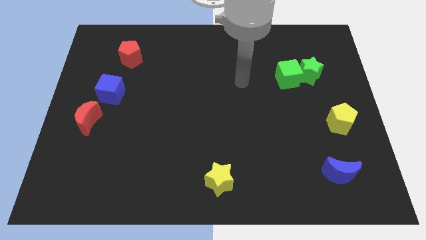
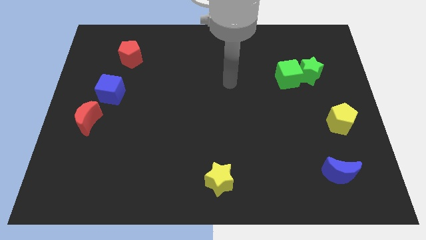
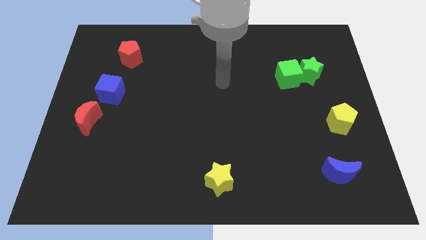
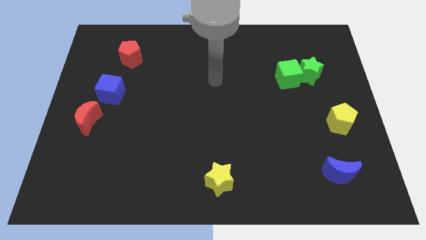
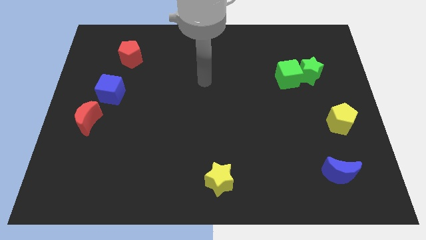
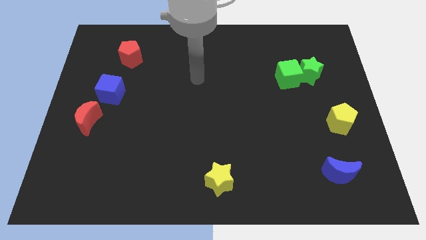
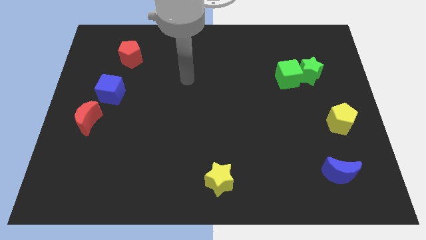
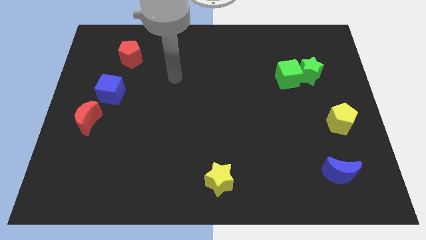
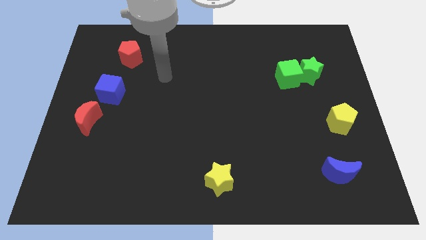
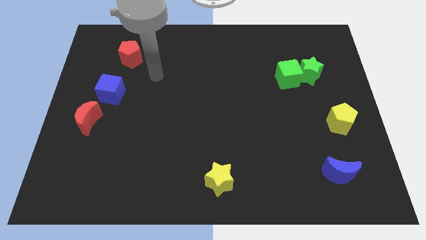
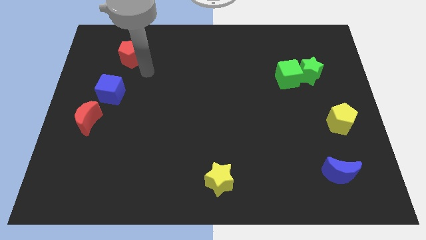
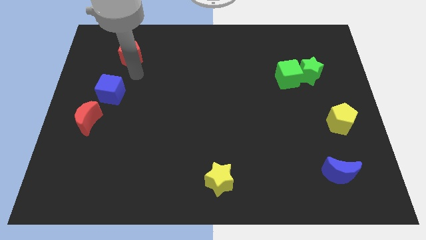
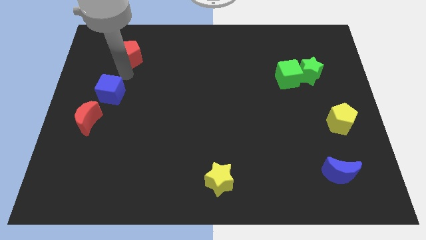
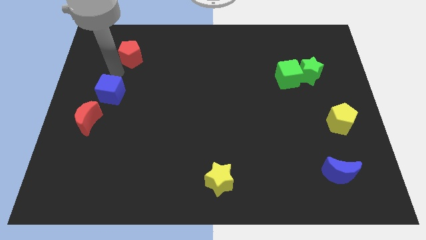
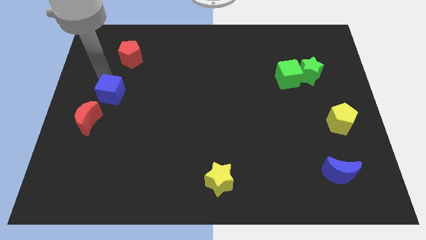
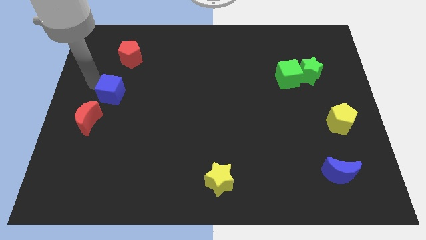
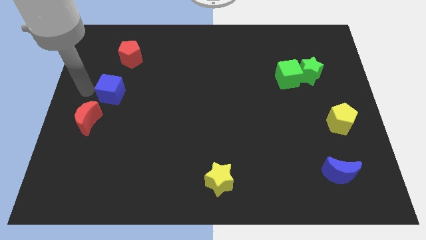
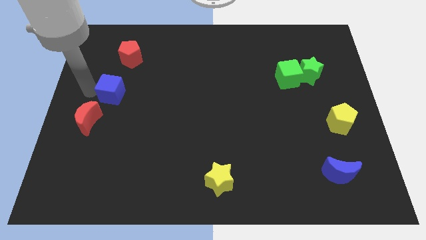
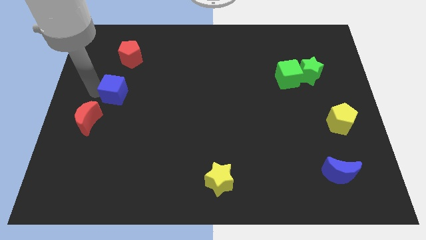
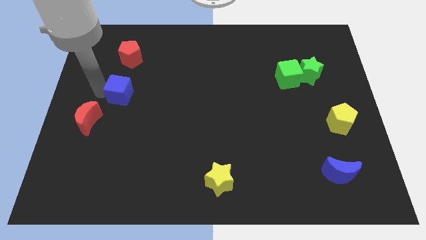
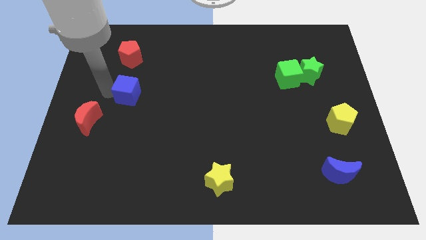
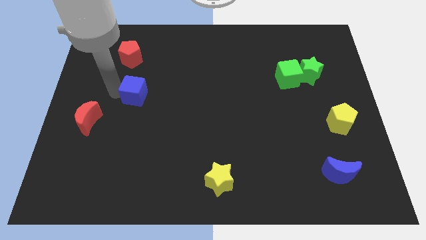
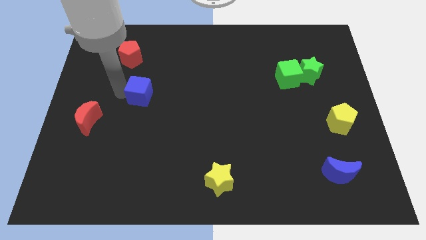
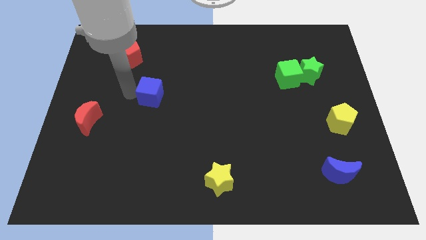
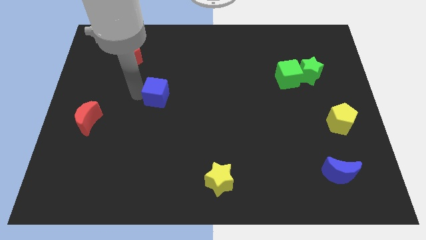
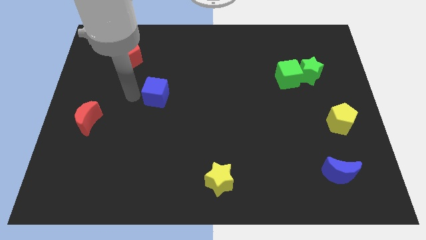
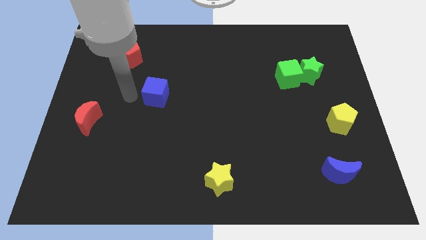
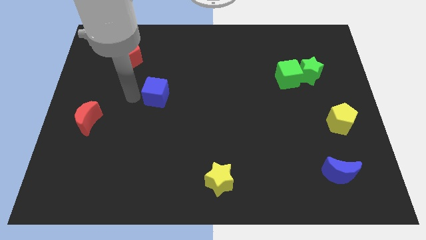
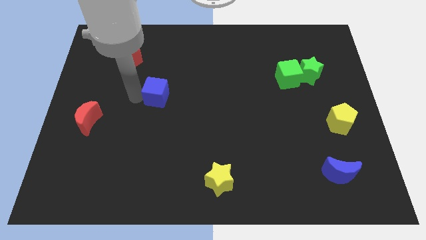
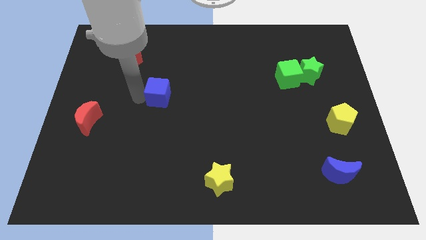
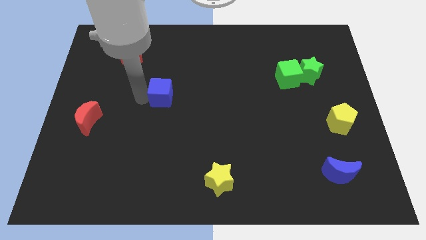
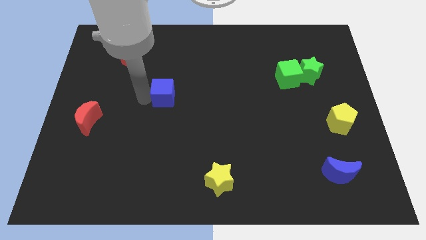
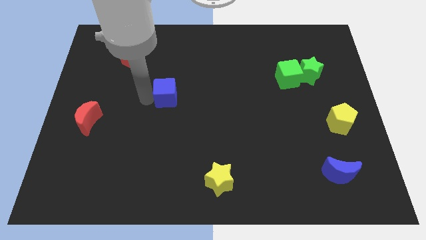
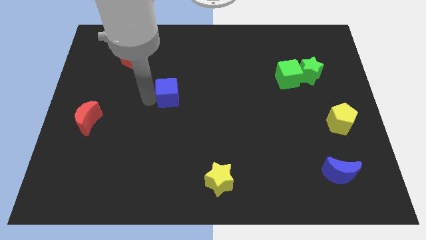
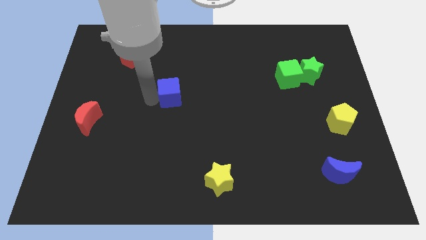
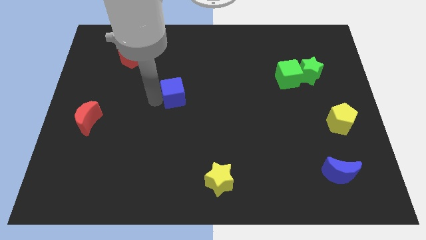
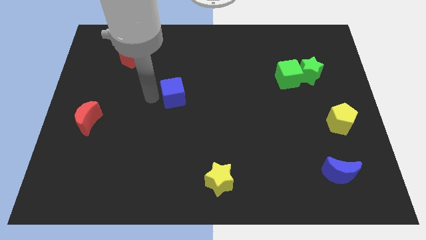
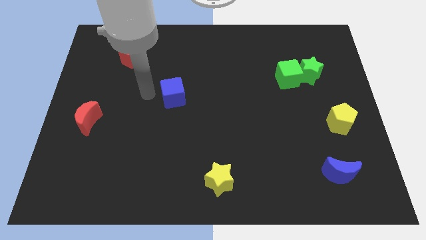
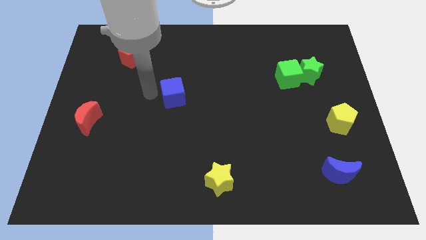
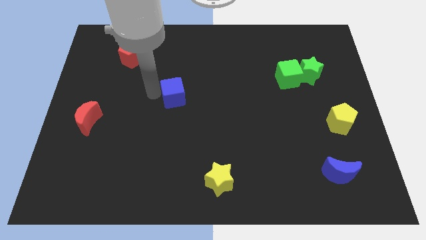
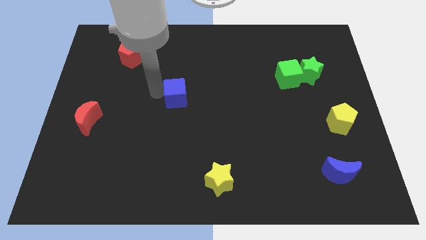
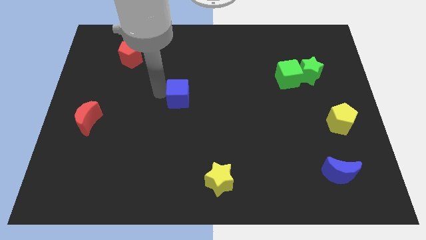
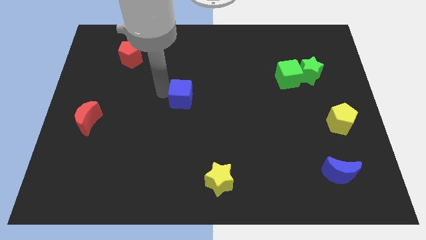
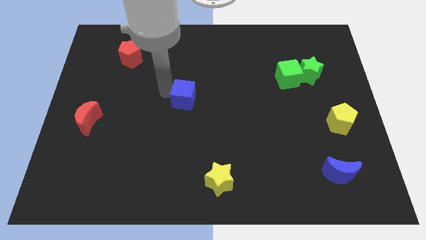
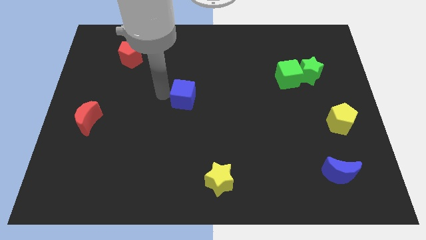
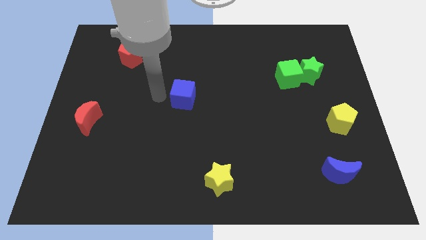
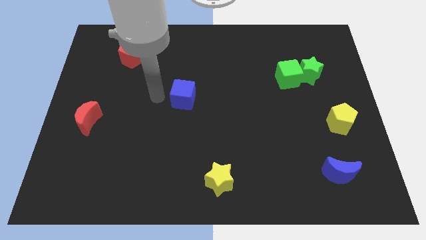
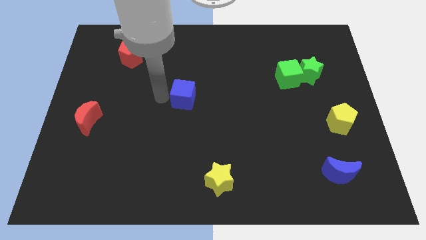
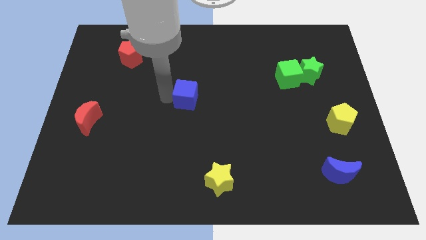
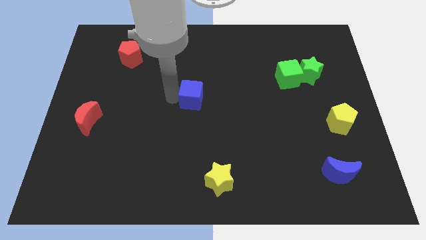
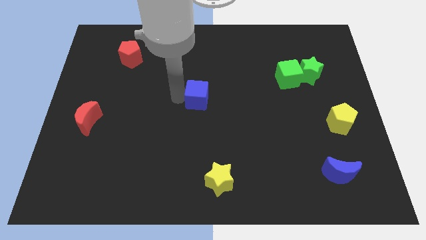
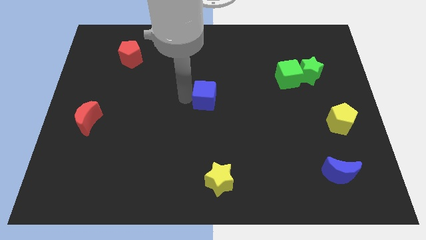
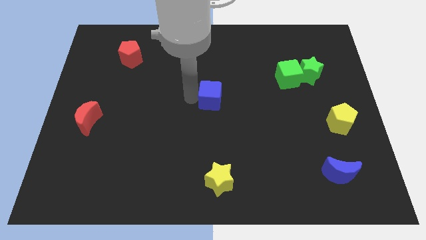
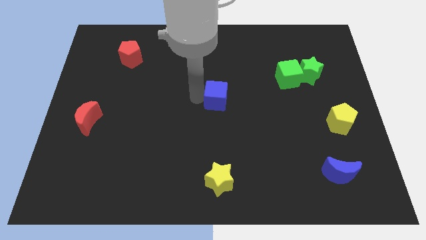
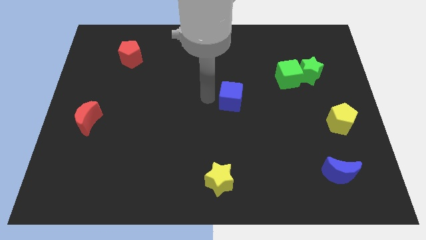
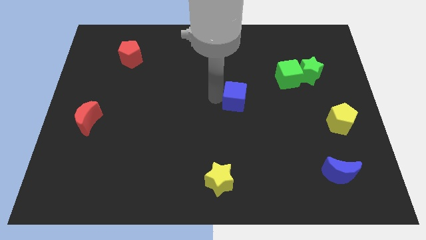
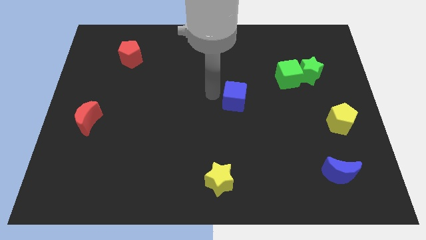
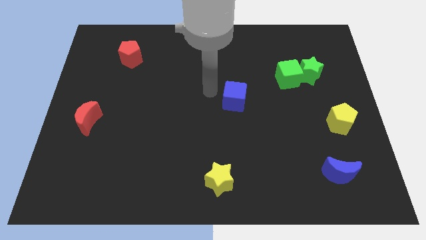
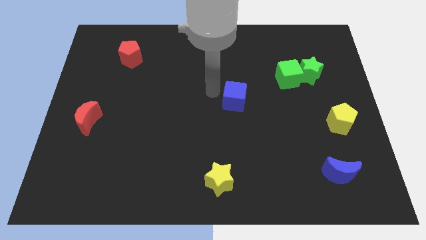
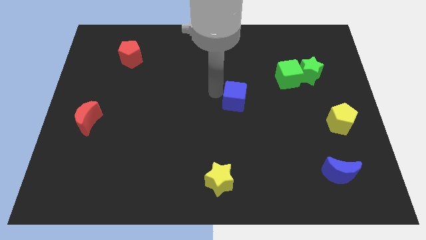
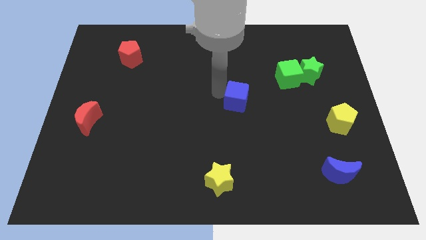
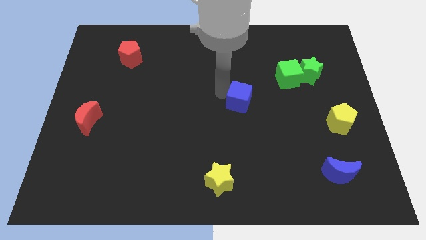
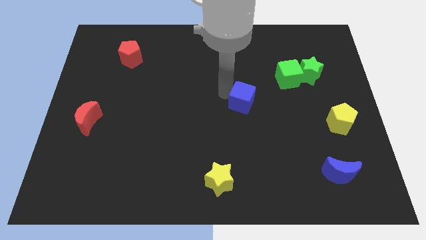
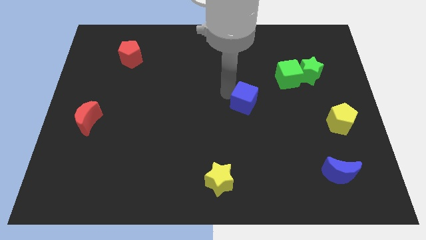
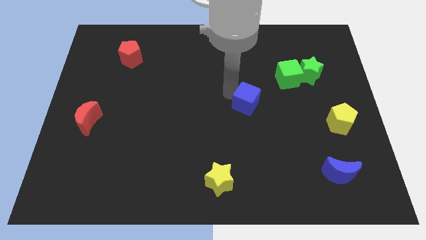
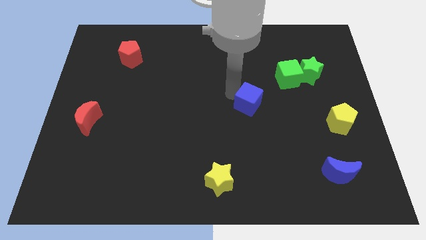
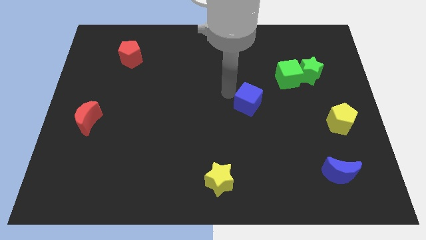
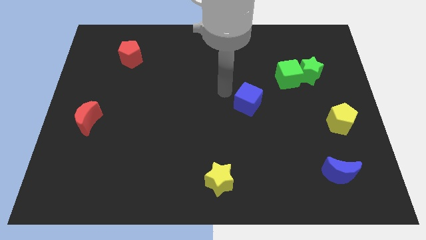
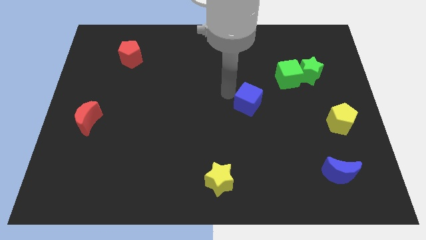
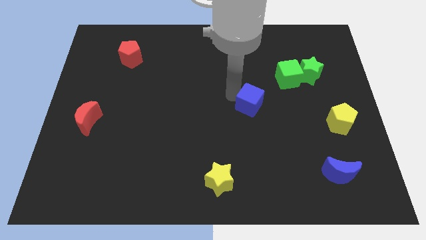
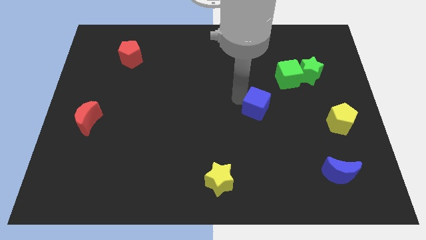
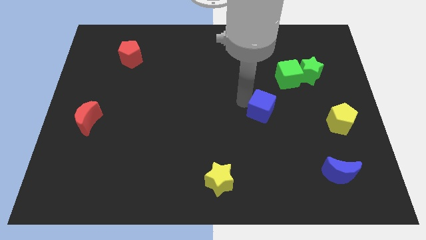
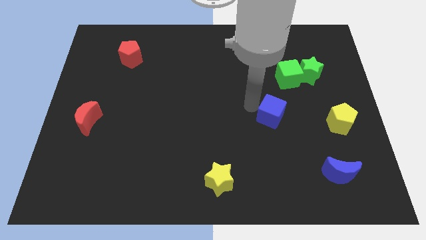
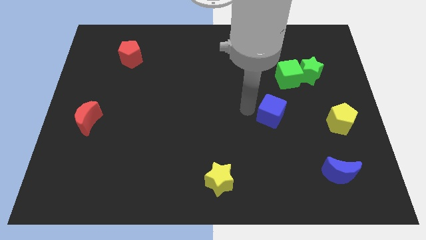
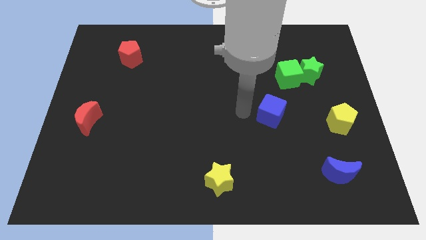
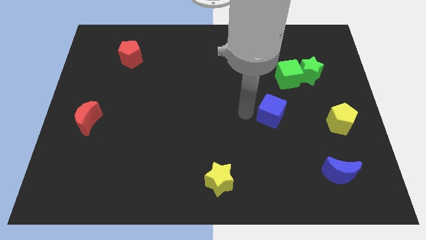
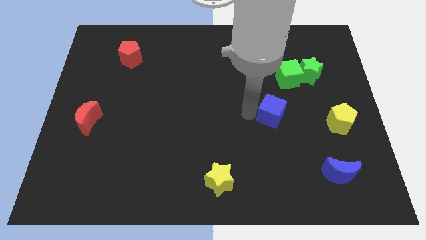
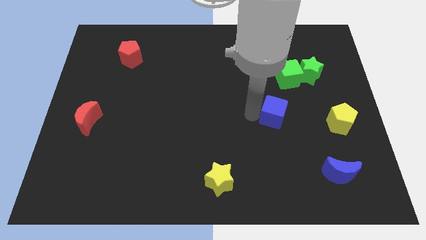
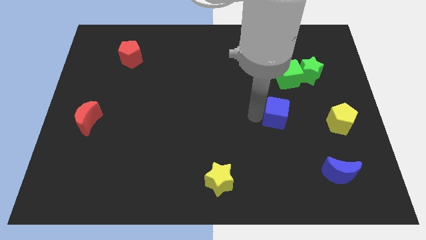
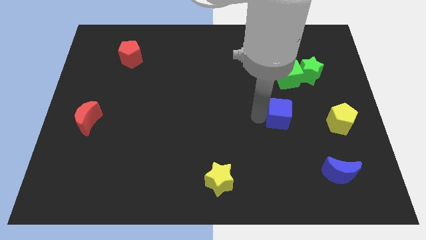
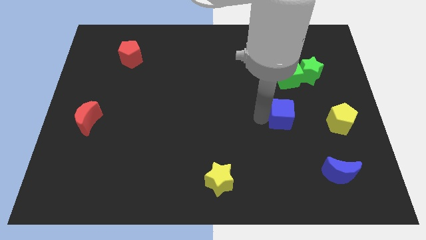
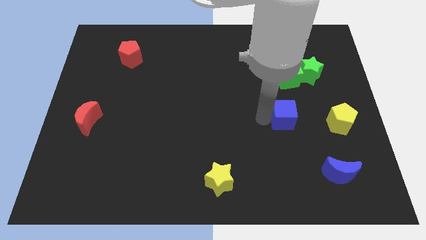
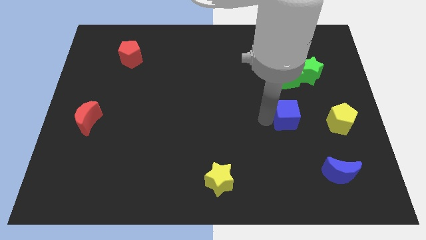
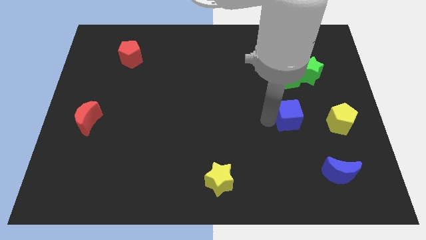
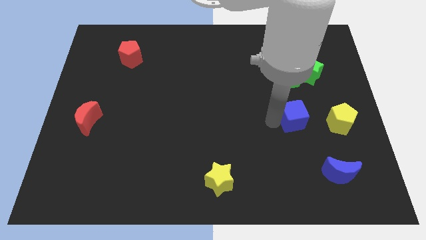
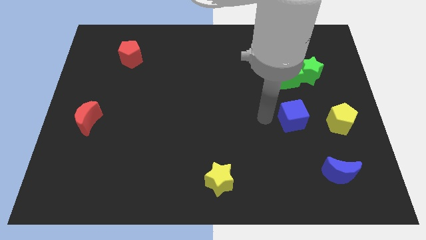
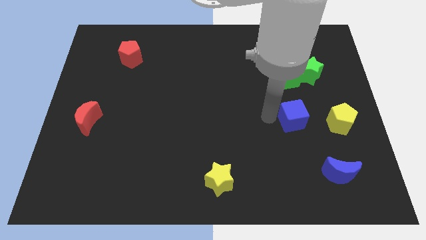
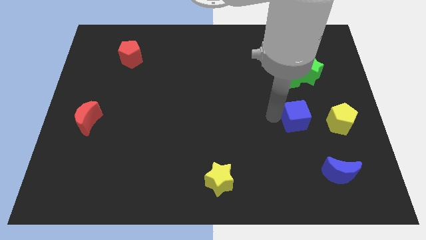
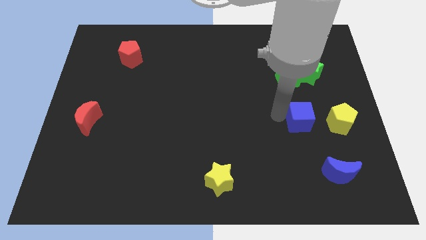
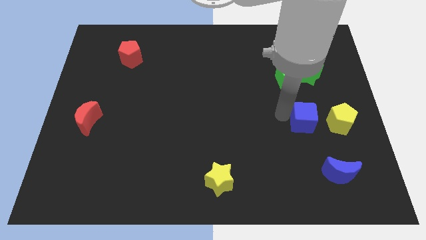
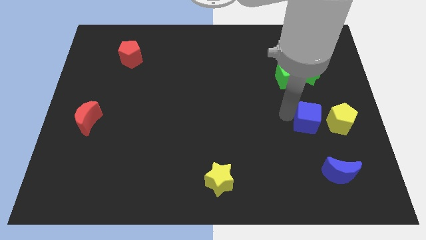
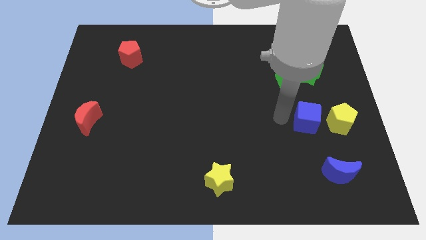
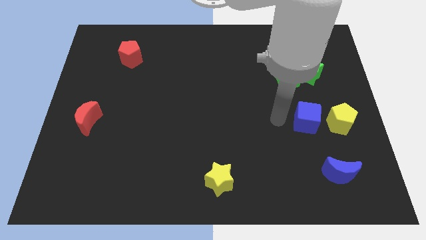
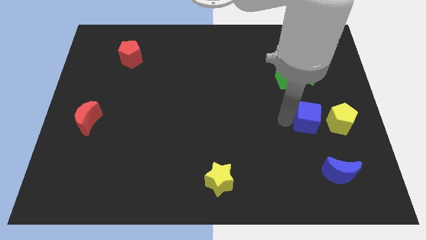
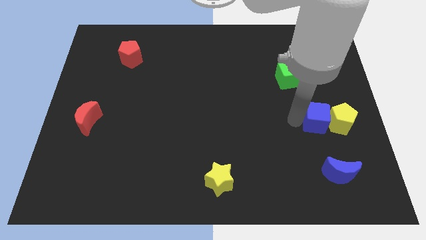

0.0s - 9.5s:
put the blue cube towards the yellow pentagon
